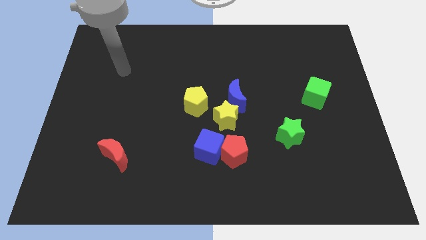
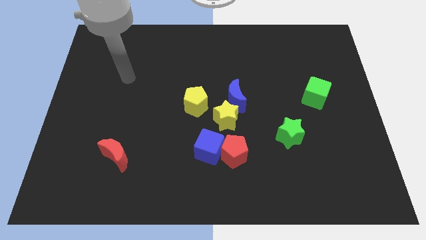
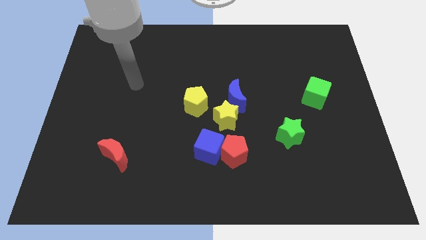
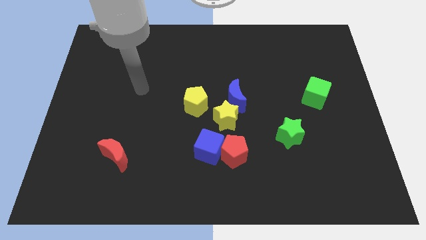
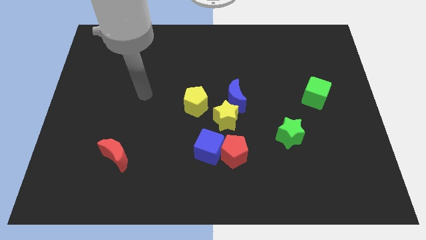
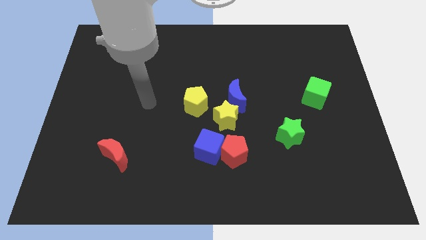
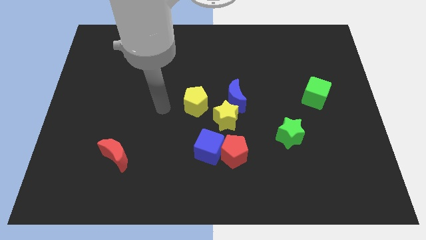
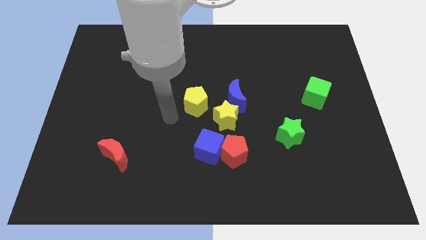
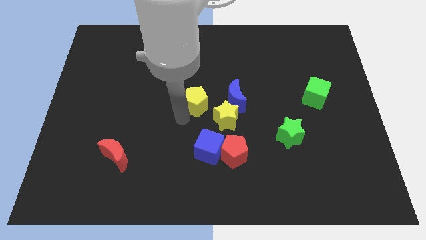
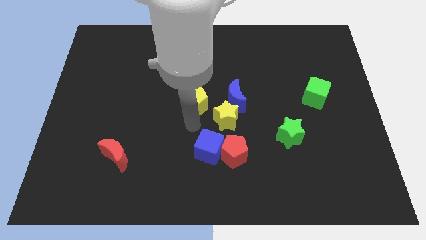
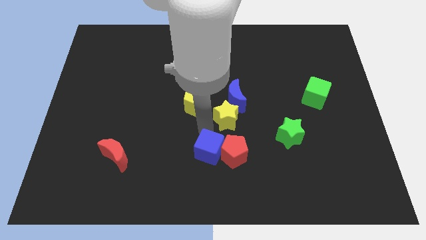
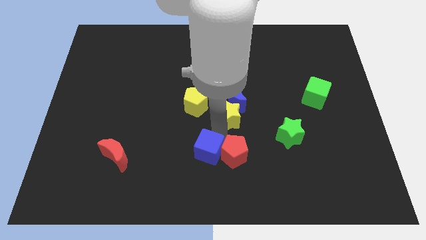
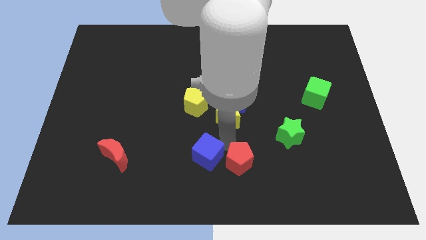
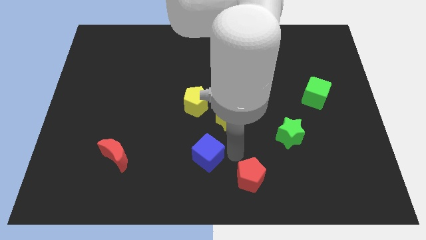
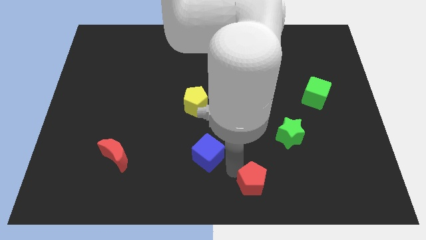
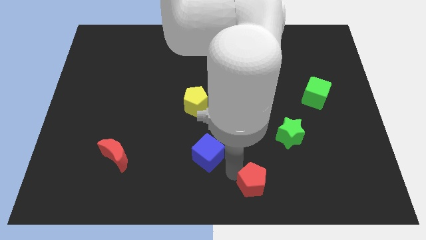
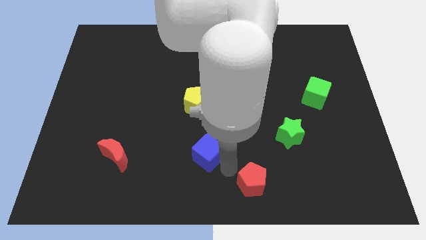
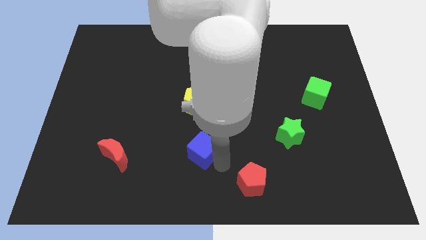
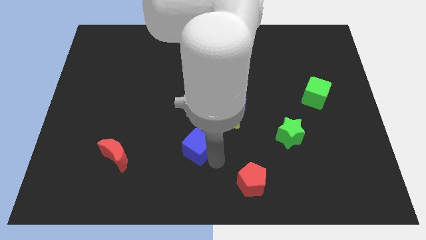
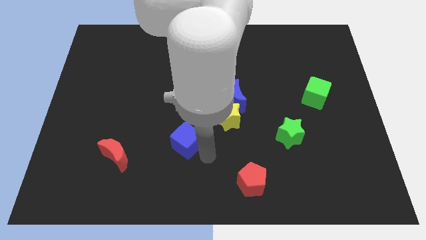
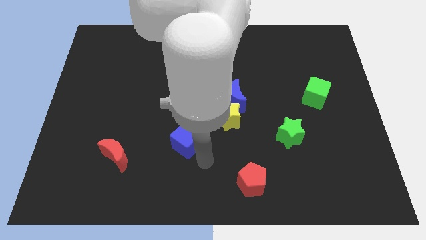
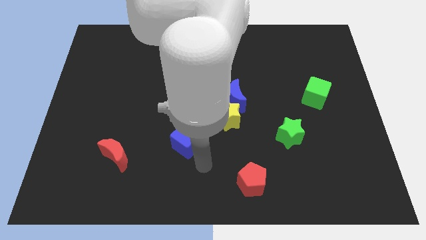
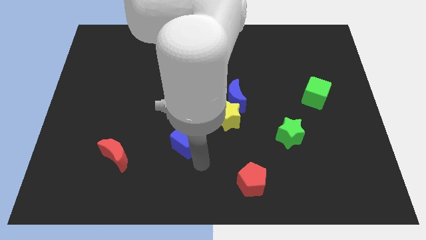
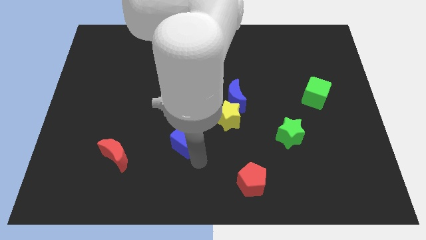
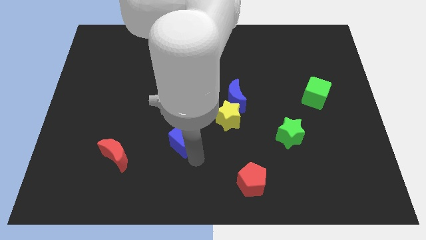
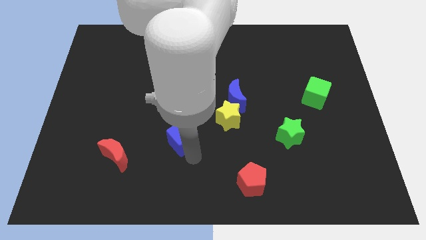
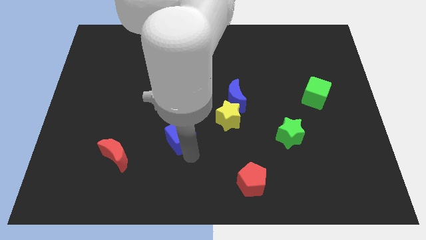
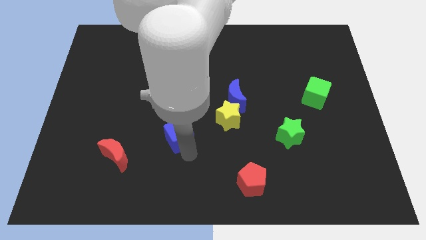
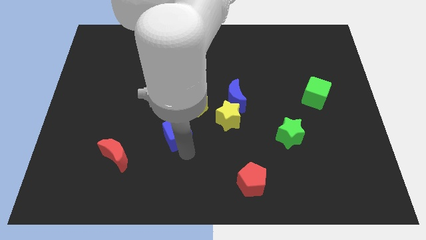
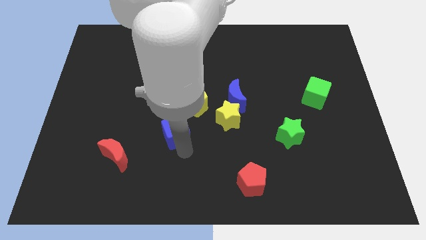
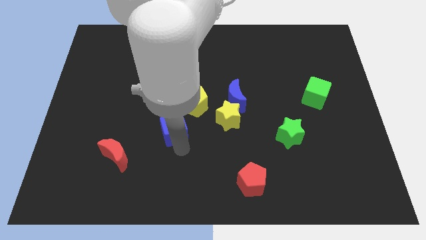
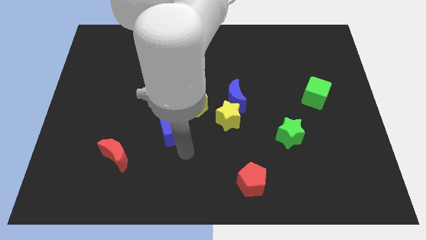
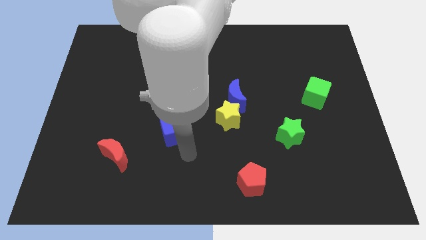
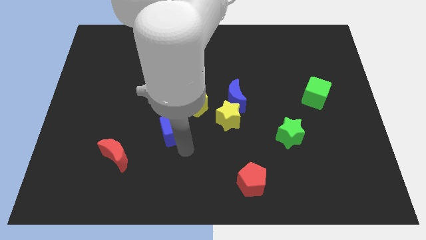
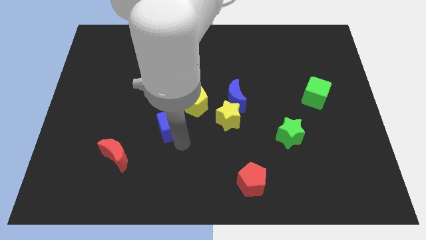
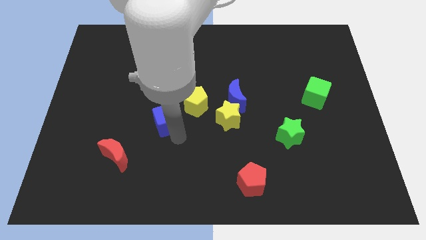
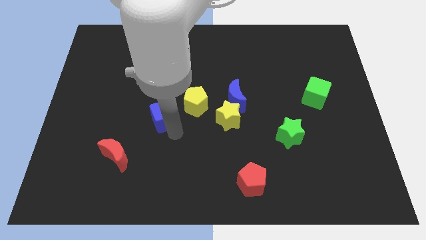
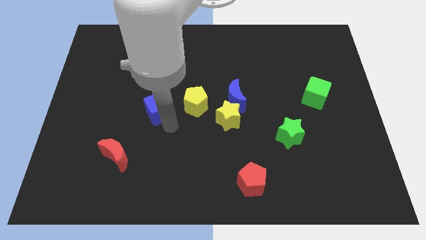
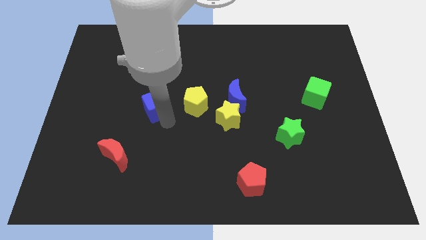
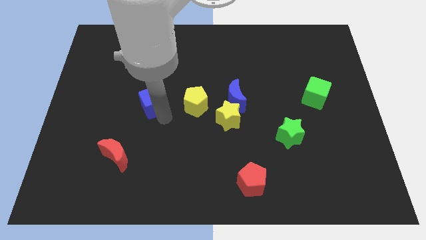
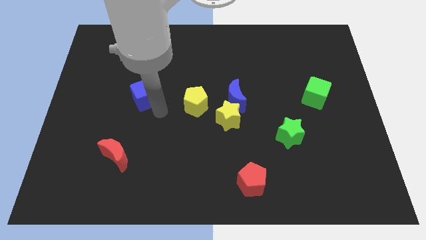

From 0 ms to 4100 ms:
push the blue cube upwards and then left

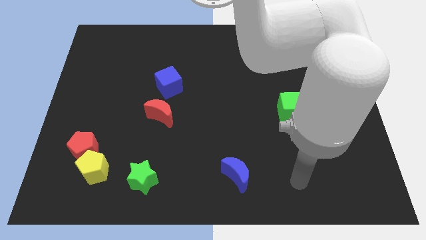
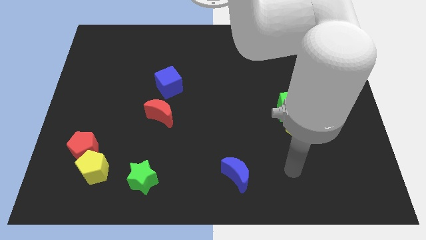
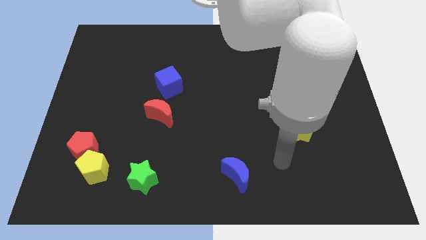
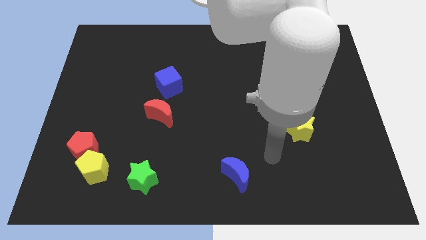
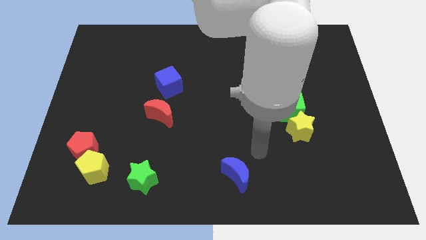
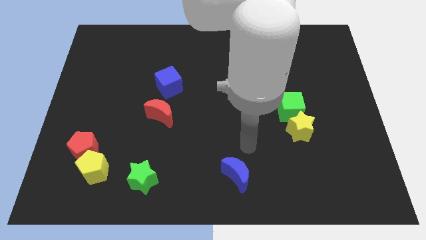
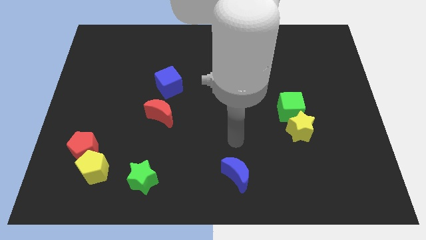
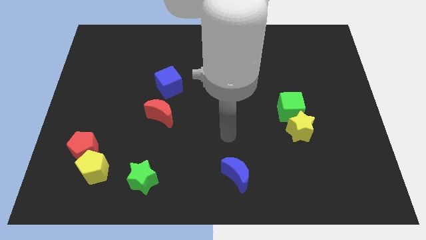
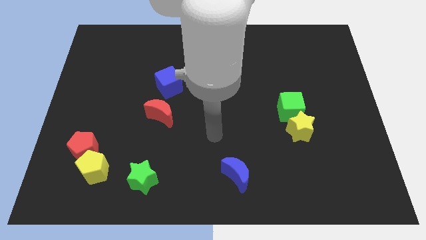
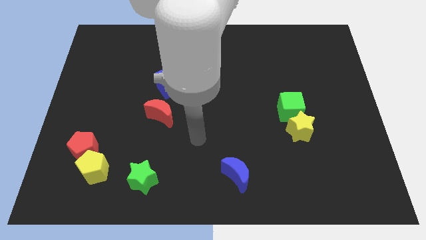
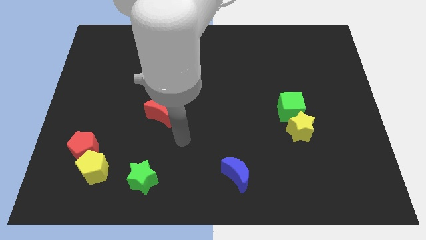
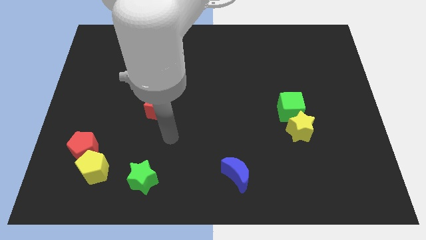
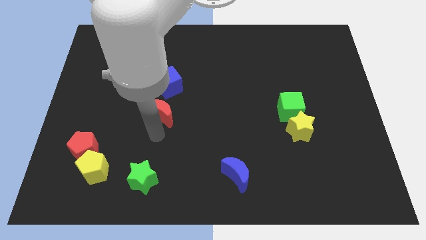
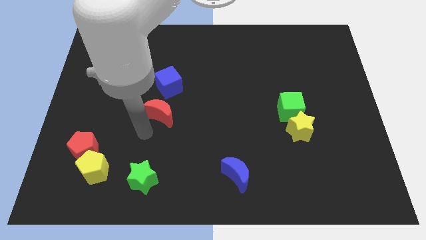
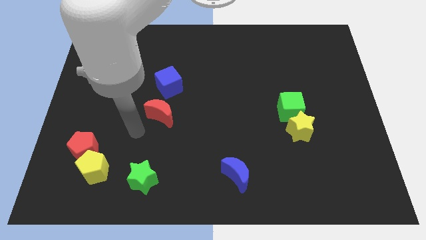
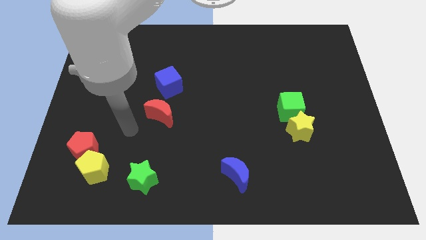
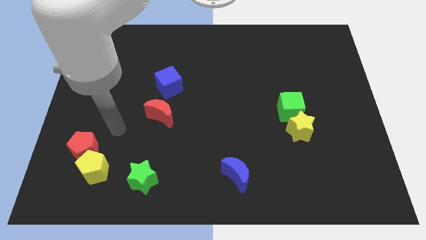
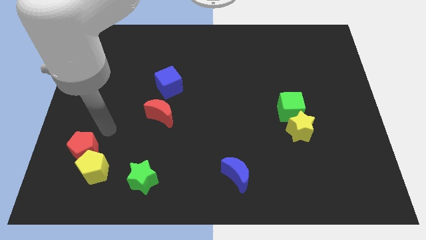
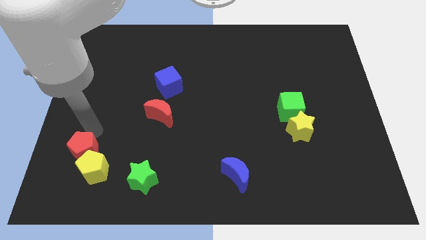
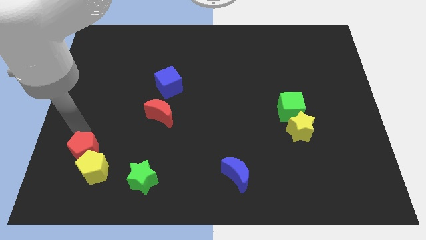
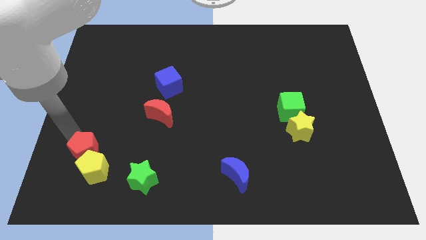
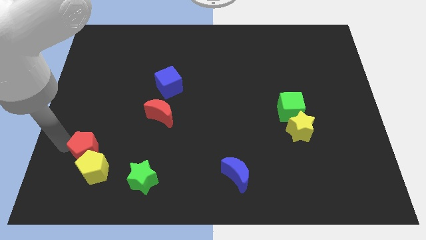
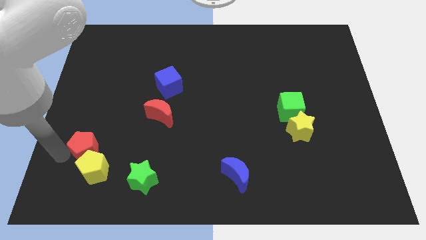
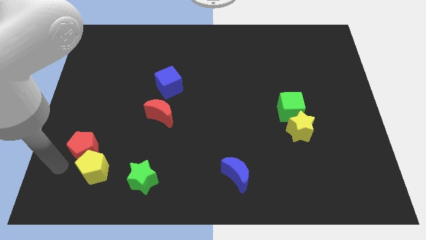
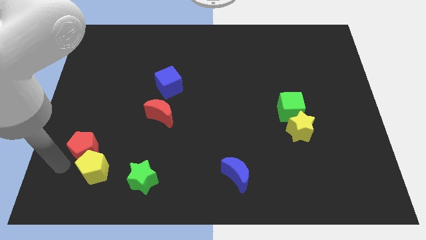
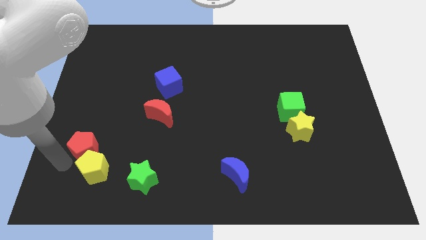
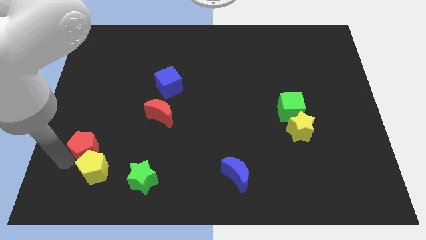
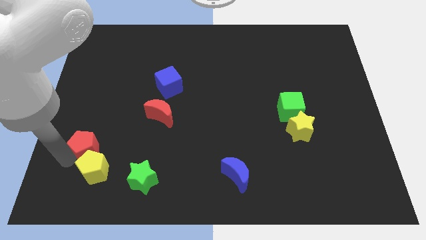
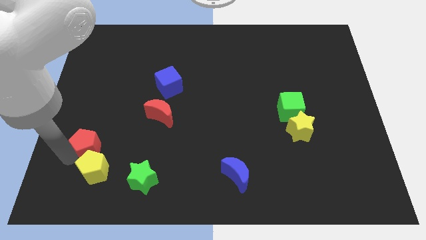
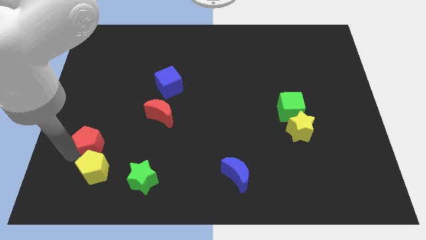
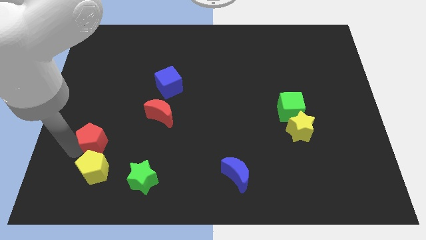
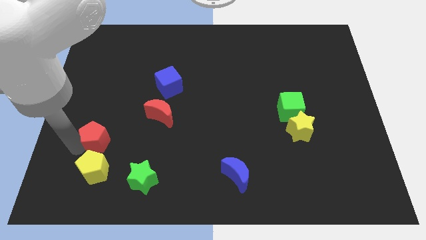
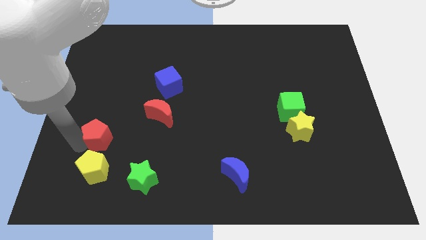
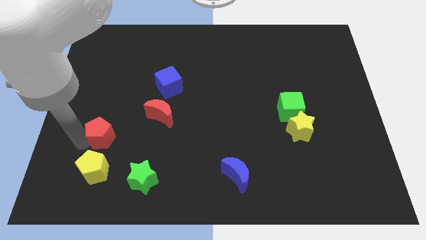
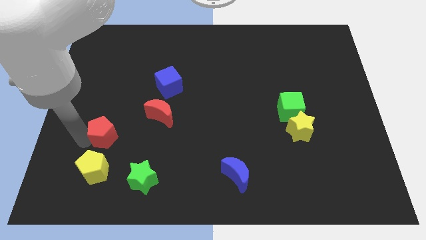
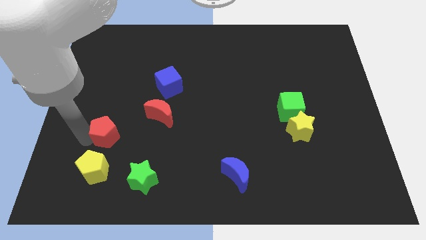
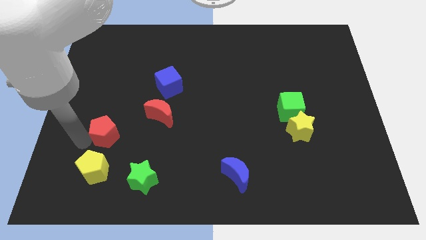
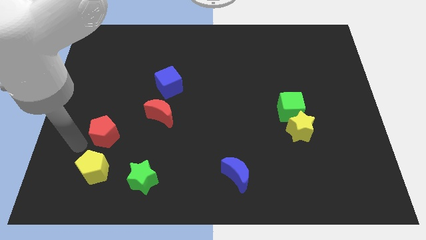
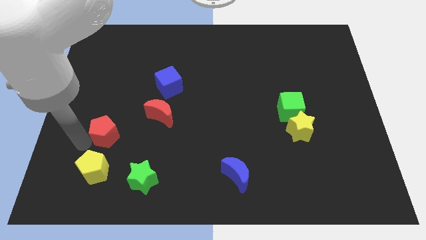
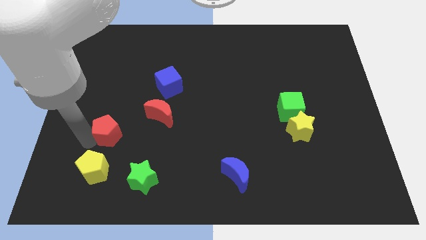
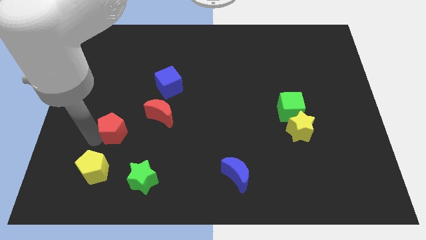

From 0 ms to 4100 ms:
slightly push the red pentagon up and right diagonally
